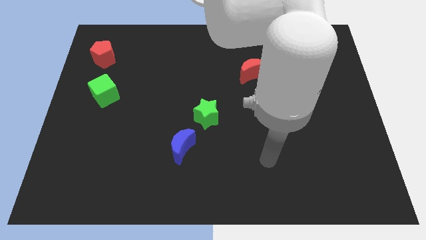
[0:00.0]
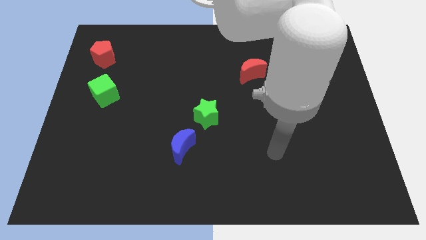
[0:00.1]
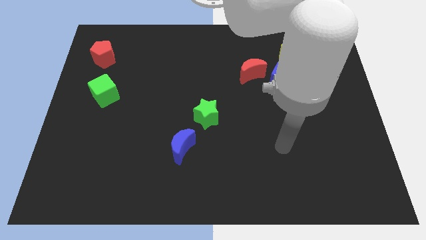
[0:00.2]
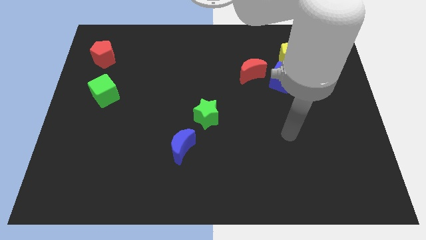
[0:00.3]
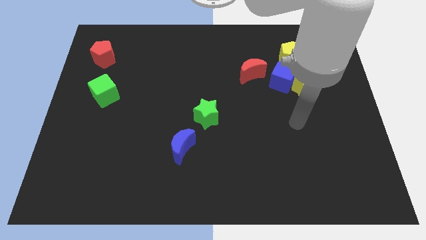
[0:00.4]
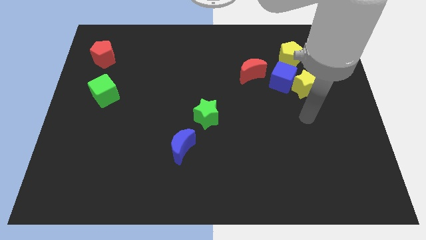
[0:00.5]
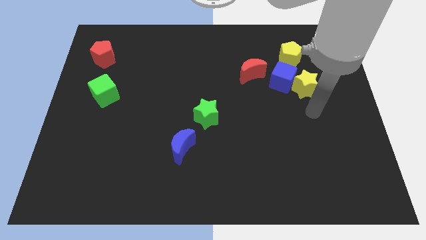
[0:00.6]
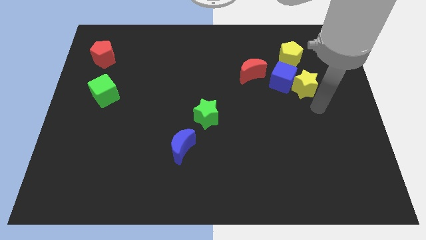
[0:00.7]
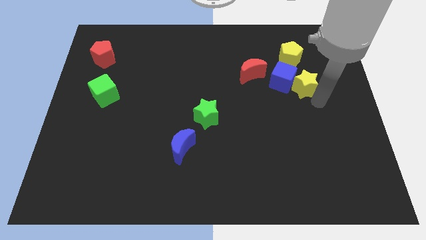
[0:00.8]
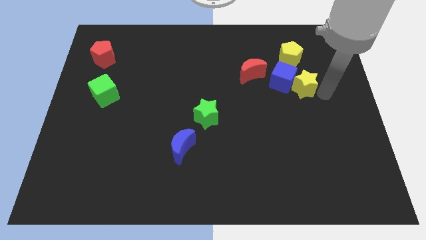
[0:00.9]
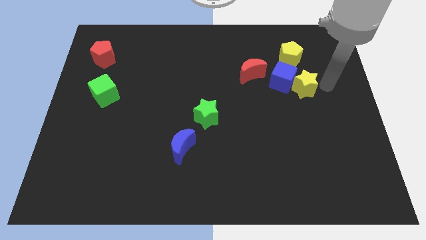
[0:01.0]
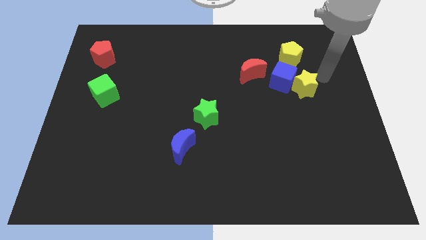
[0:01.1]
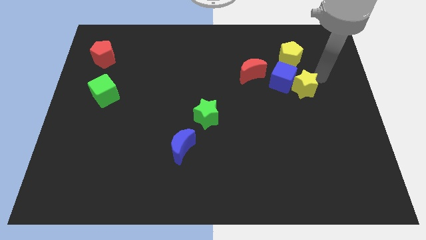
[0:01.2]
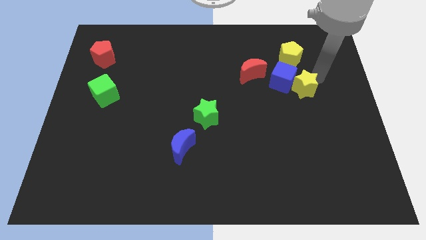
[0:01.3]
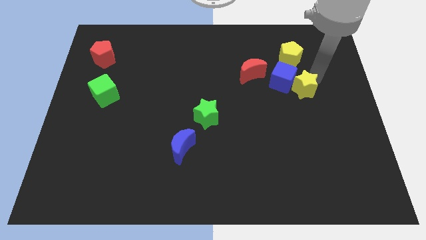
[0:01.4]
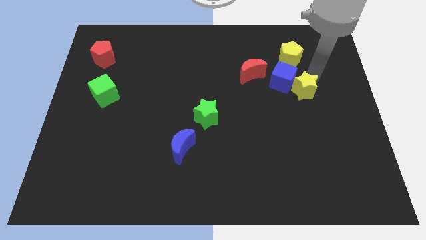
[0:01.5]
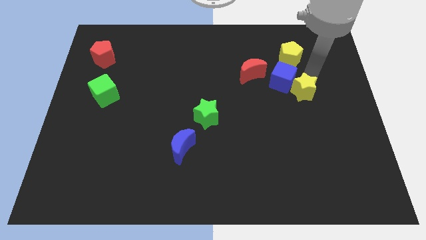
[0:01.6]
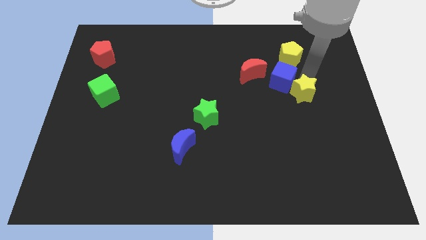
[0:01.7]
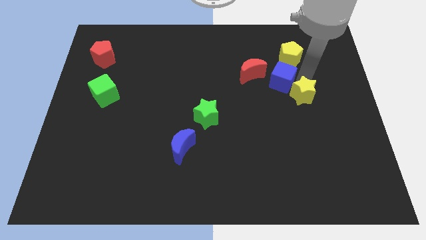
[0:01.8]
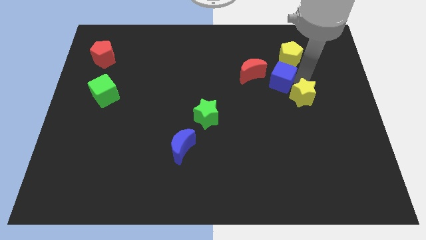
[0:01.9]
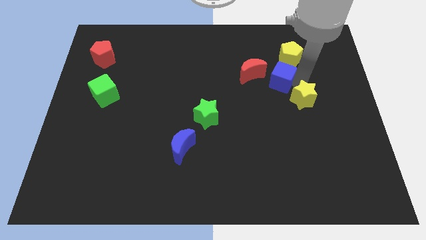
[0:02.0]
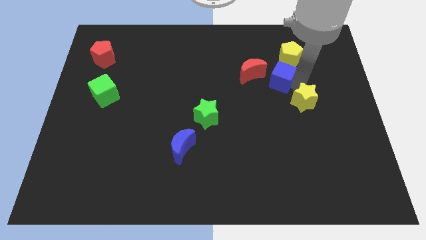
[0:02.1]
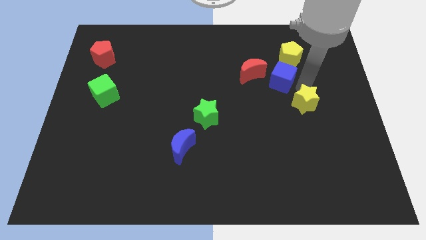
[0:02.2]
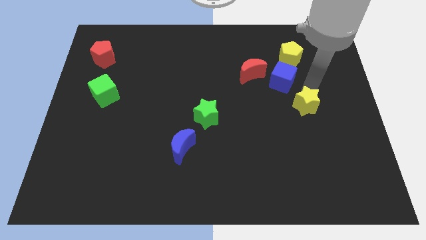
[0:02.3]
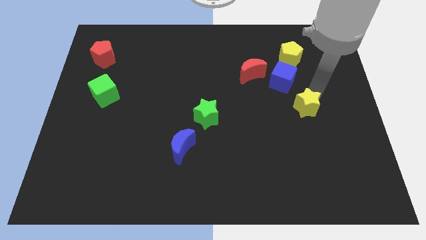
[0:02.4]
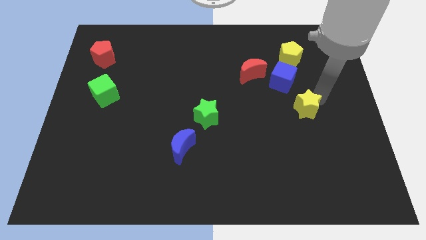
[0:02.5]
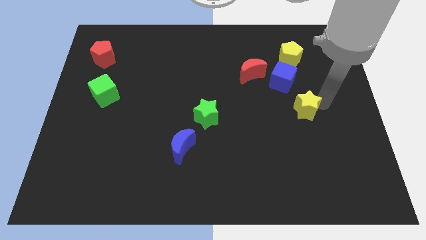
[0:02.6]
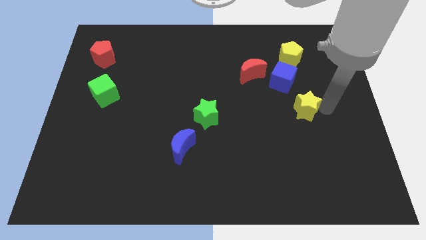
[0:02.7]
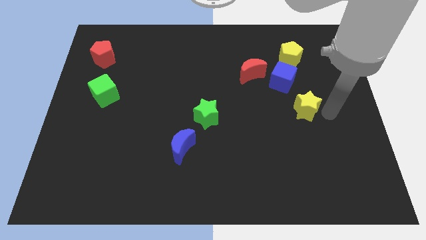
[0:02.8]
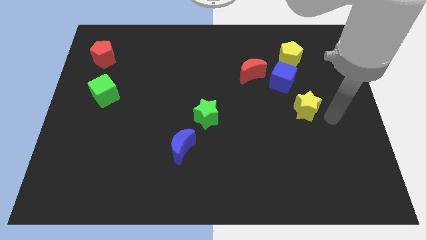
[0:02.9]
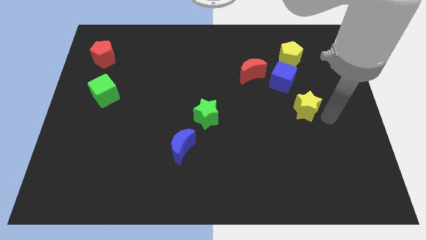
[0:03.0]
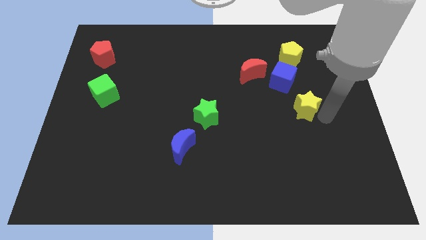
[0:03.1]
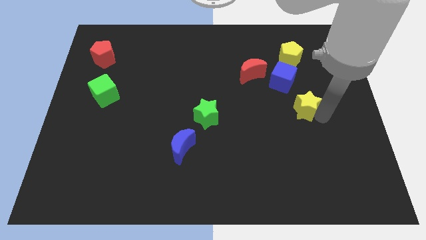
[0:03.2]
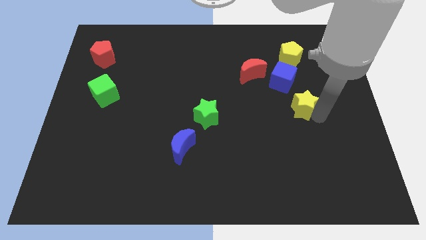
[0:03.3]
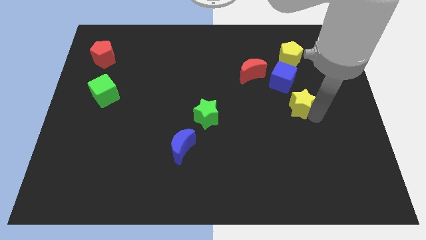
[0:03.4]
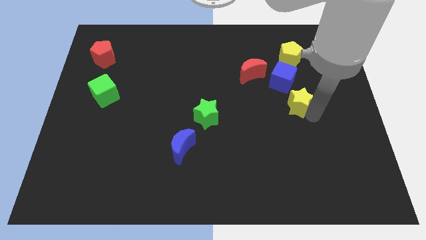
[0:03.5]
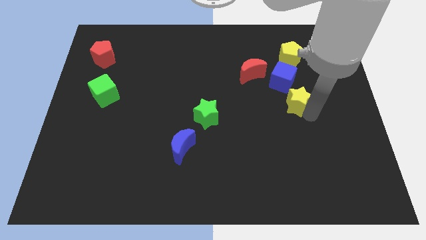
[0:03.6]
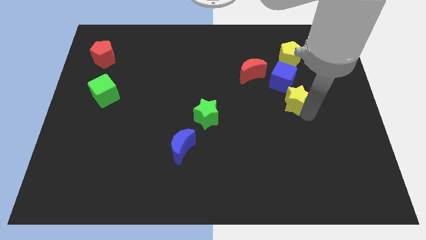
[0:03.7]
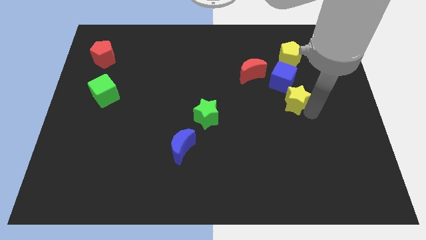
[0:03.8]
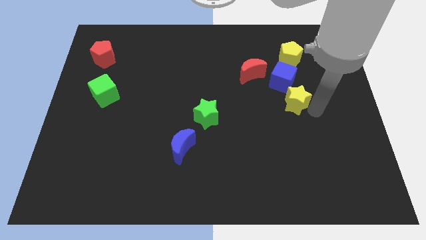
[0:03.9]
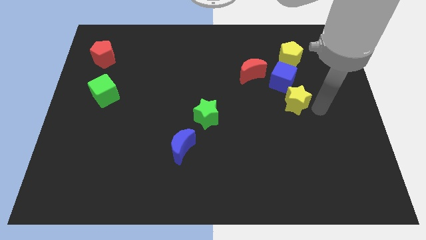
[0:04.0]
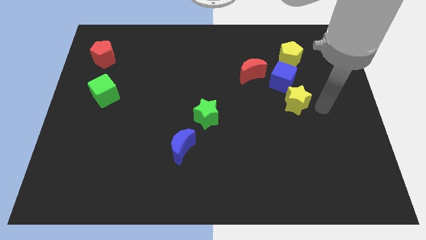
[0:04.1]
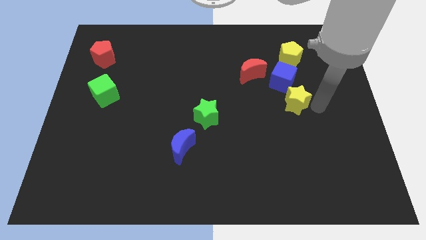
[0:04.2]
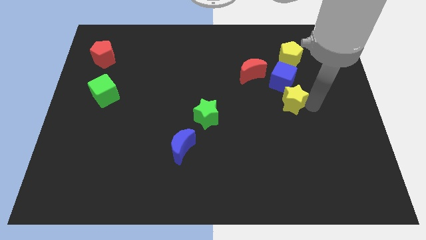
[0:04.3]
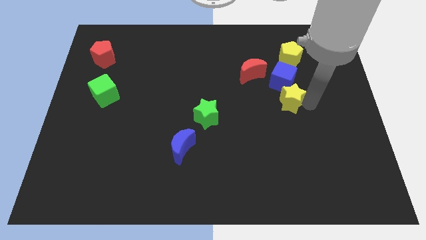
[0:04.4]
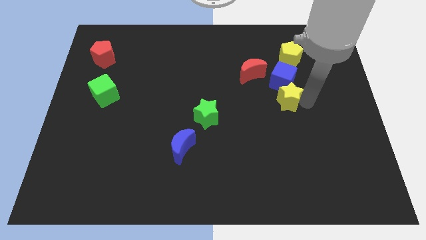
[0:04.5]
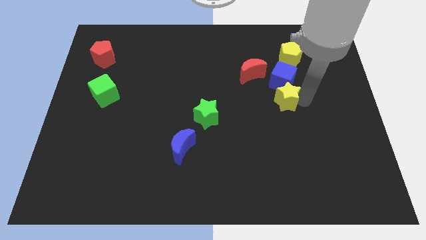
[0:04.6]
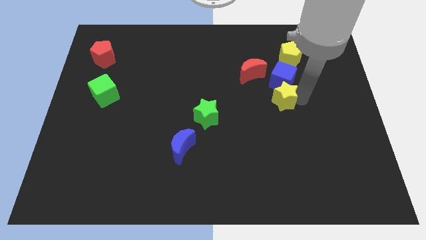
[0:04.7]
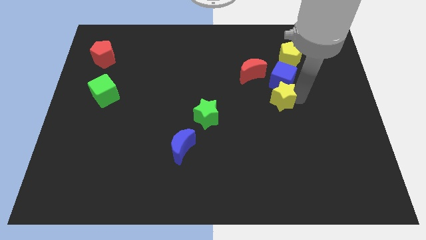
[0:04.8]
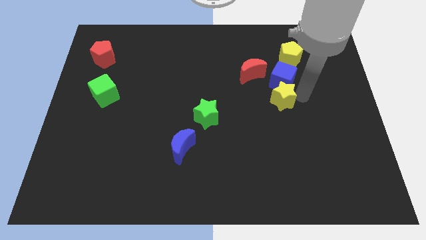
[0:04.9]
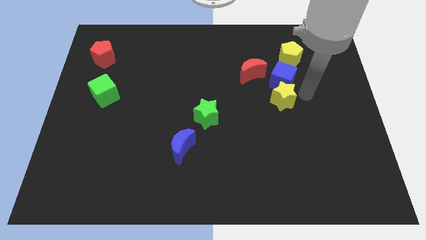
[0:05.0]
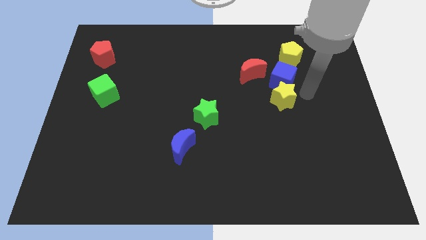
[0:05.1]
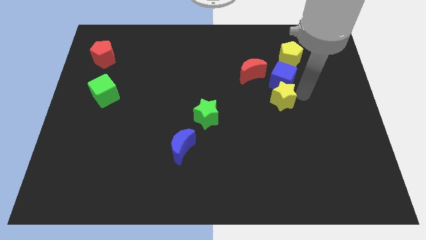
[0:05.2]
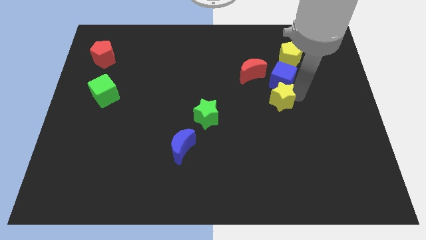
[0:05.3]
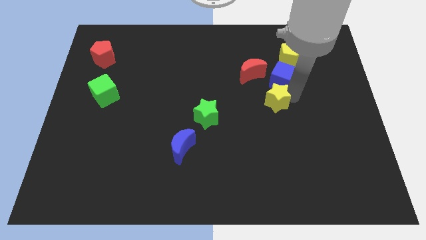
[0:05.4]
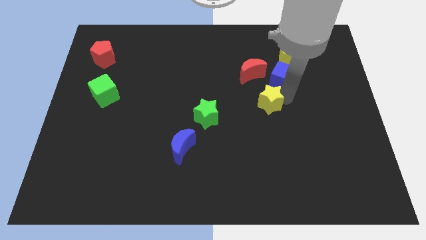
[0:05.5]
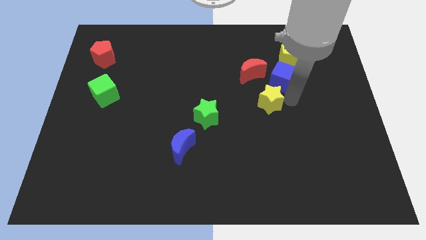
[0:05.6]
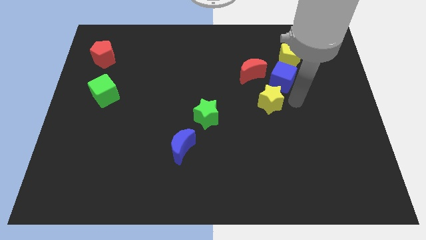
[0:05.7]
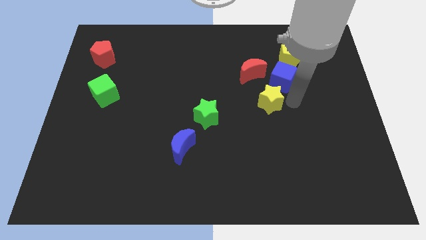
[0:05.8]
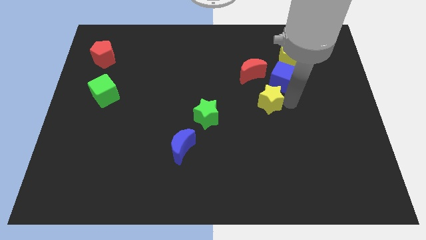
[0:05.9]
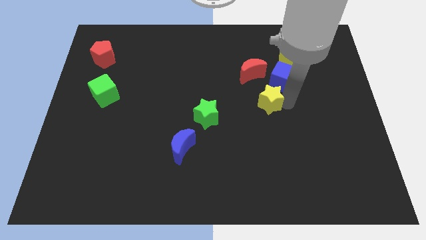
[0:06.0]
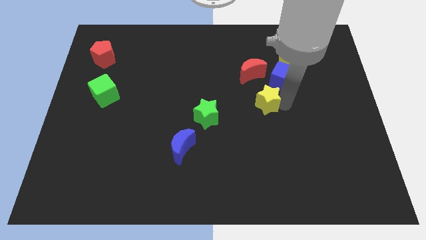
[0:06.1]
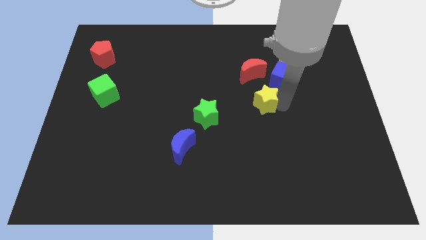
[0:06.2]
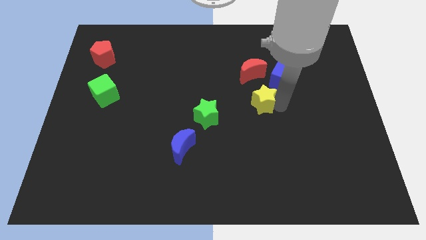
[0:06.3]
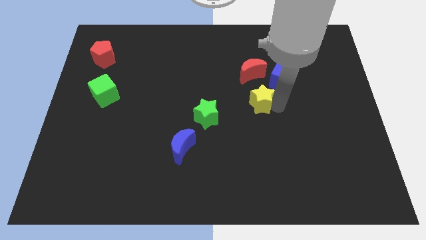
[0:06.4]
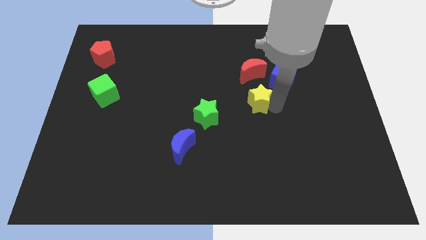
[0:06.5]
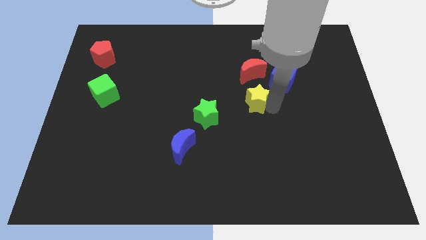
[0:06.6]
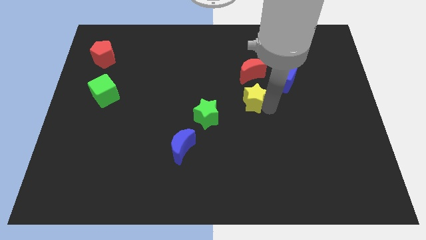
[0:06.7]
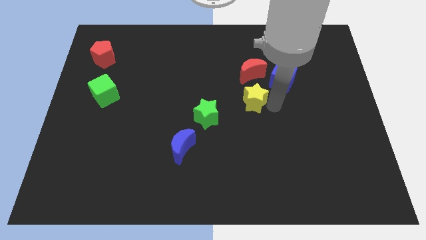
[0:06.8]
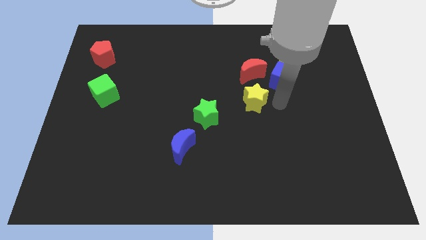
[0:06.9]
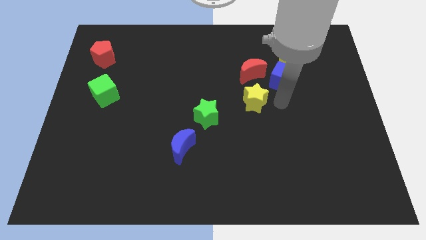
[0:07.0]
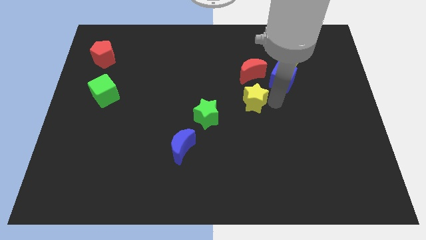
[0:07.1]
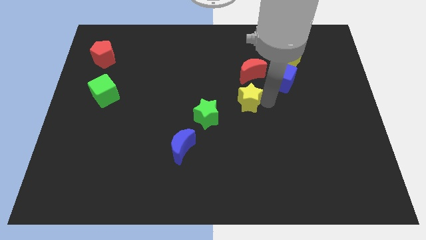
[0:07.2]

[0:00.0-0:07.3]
move the yellow star to the top right of the green star
